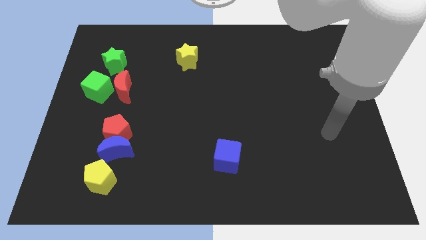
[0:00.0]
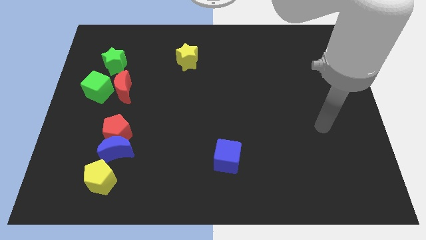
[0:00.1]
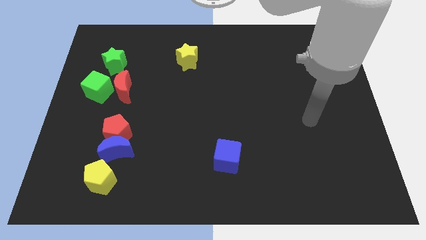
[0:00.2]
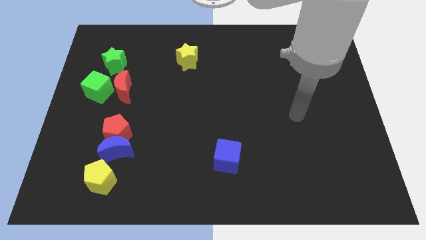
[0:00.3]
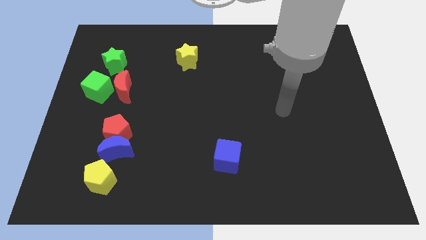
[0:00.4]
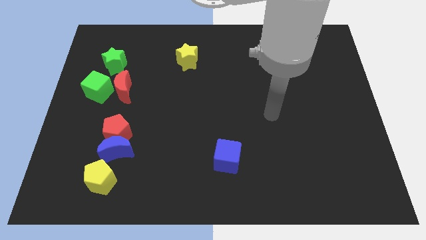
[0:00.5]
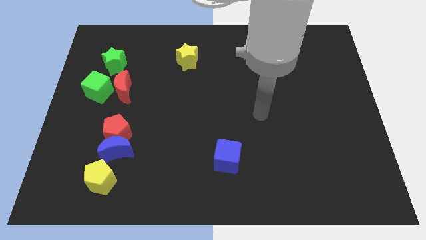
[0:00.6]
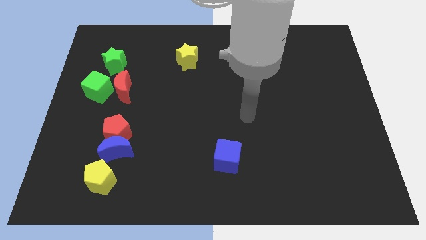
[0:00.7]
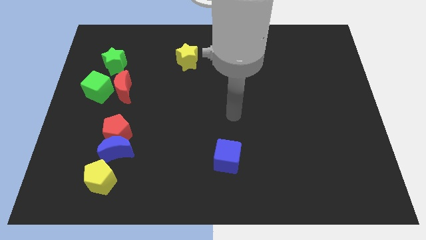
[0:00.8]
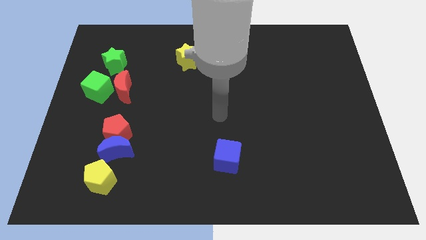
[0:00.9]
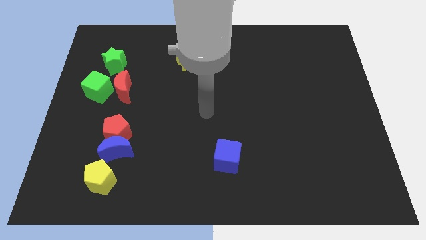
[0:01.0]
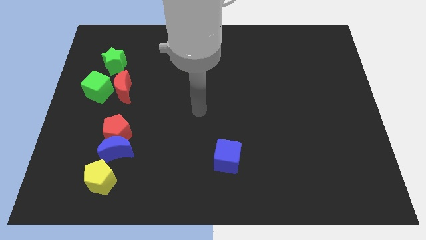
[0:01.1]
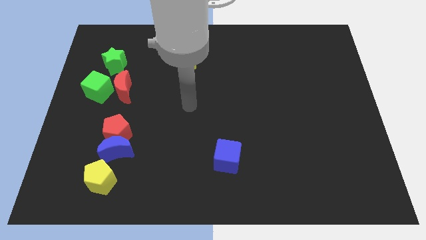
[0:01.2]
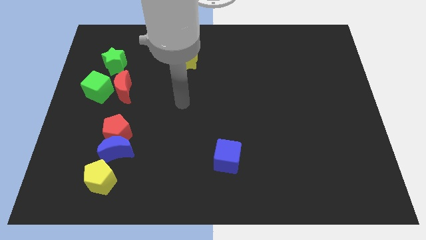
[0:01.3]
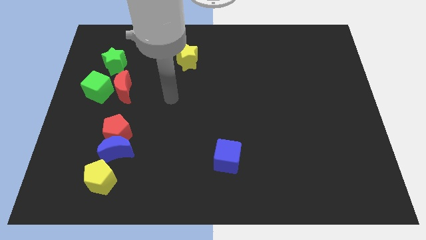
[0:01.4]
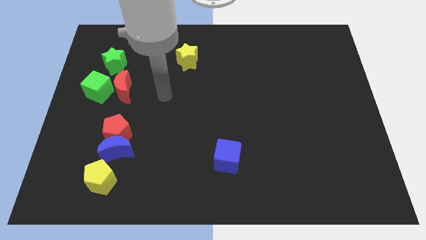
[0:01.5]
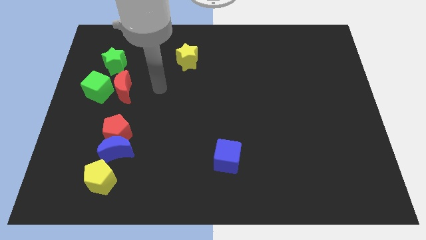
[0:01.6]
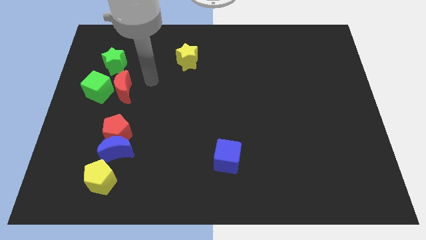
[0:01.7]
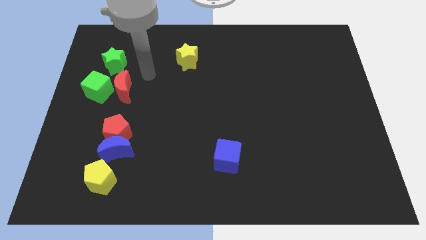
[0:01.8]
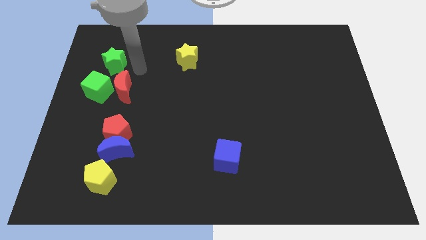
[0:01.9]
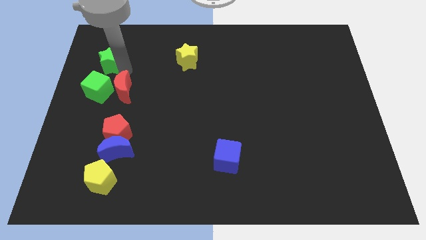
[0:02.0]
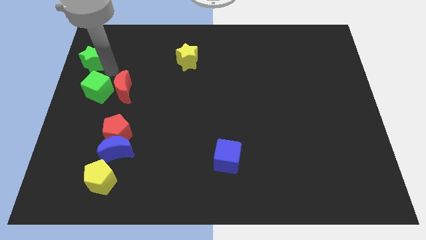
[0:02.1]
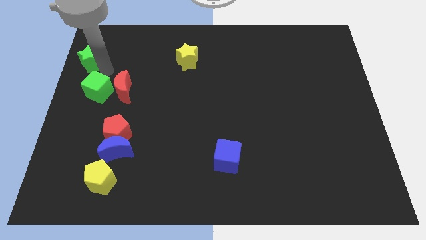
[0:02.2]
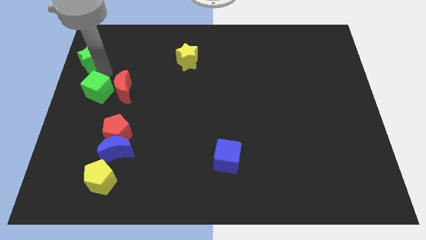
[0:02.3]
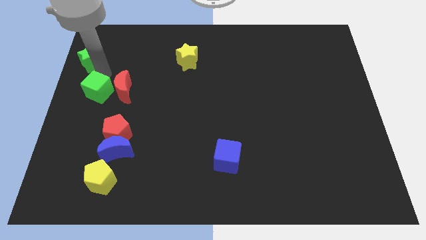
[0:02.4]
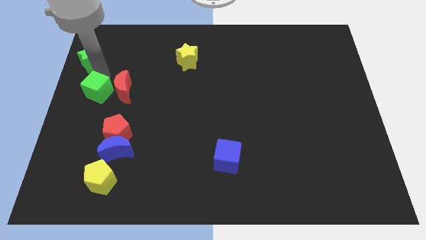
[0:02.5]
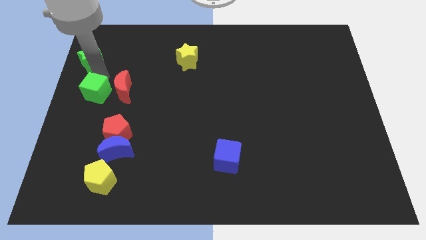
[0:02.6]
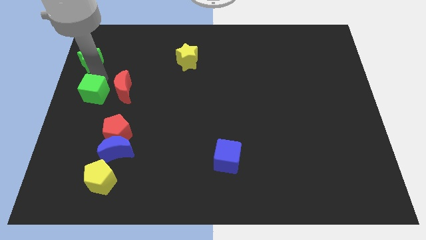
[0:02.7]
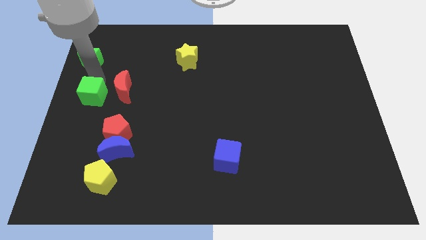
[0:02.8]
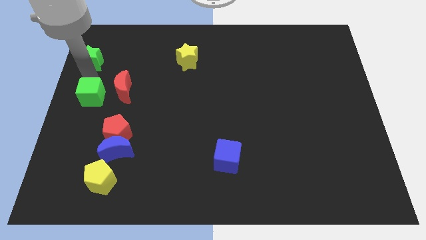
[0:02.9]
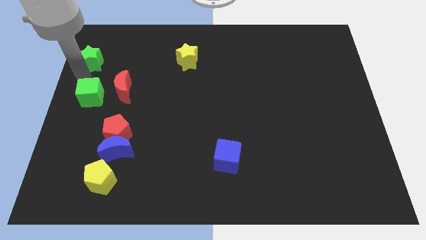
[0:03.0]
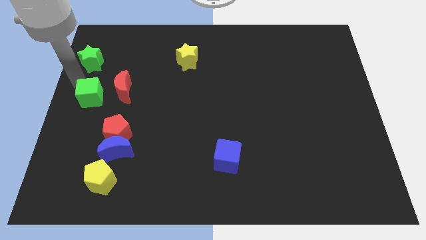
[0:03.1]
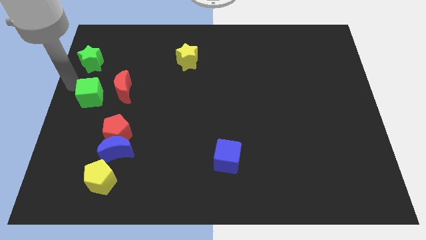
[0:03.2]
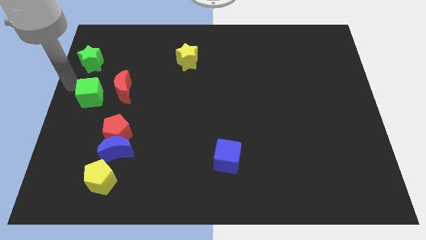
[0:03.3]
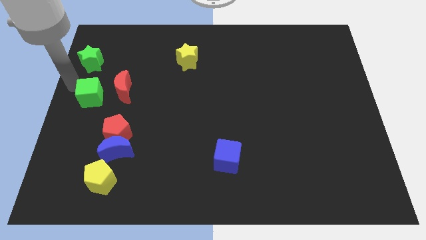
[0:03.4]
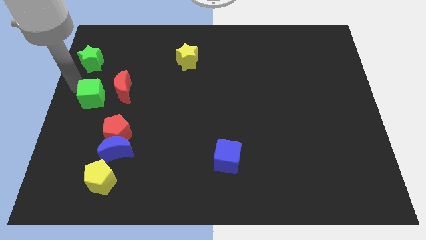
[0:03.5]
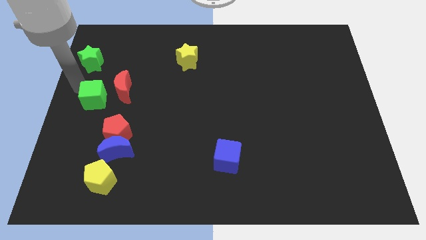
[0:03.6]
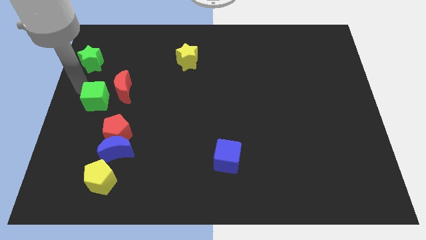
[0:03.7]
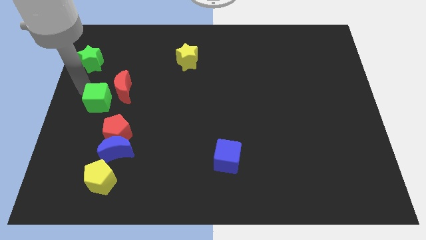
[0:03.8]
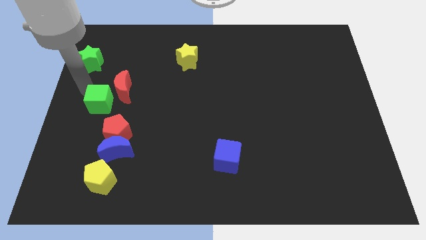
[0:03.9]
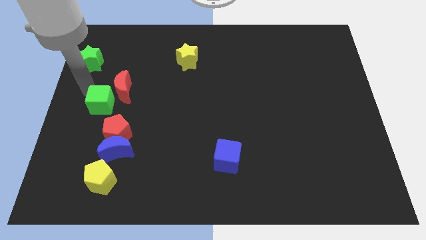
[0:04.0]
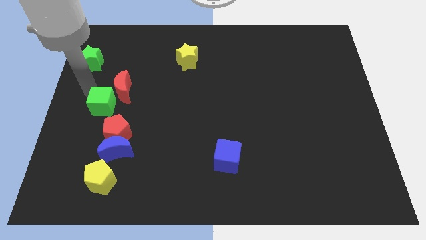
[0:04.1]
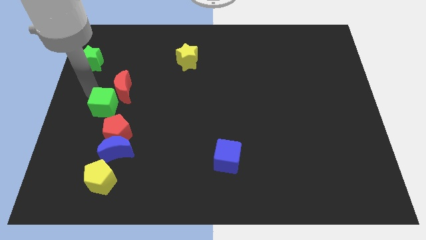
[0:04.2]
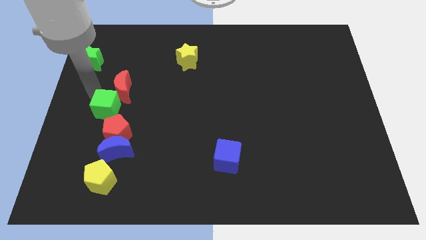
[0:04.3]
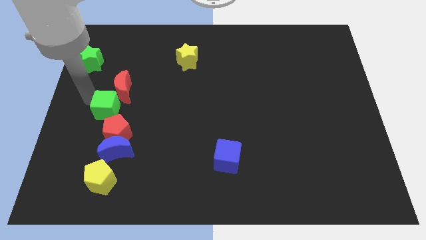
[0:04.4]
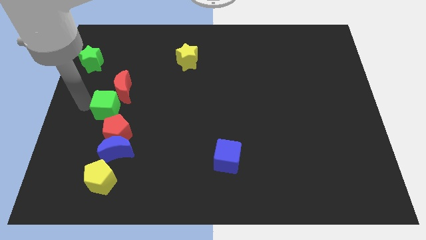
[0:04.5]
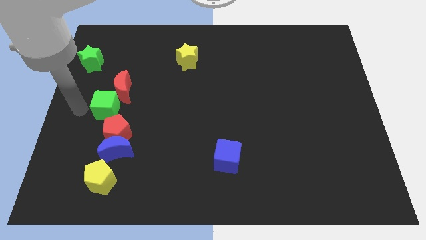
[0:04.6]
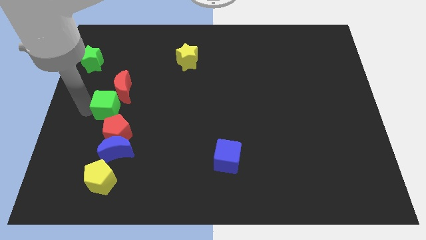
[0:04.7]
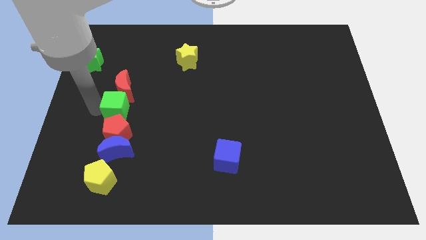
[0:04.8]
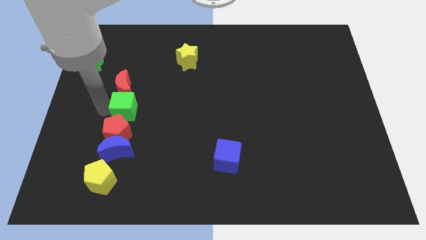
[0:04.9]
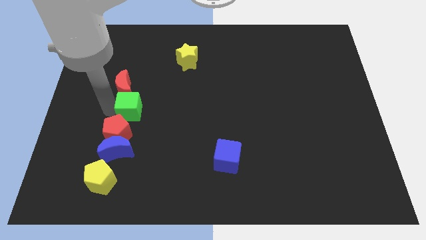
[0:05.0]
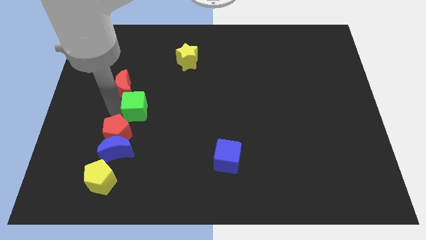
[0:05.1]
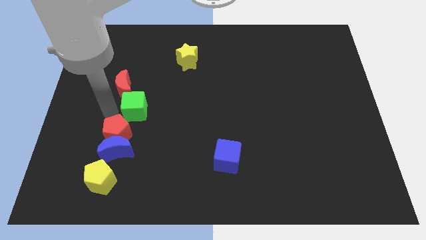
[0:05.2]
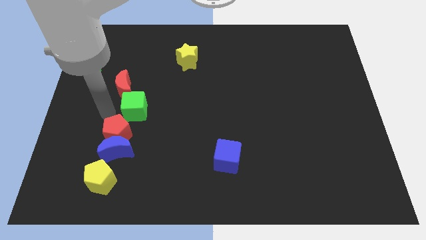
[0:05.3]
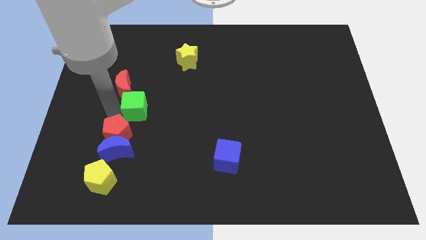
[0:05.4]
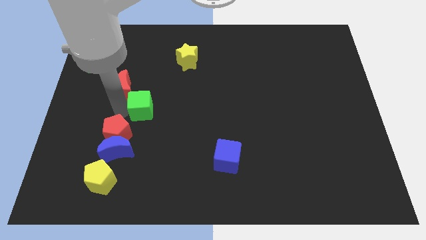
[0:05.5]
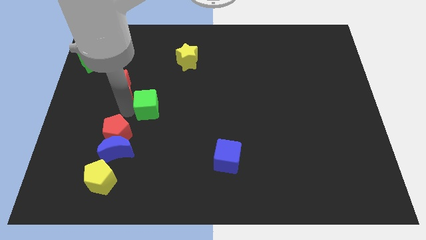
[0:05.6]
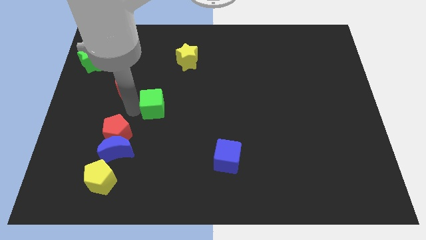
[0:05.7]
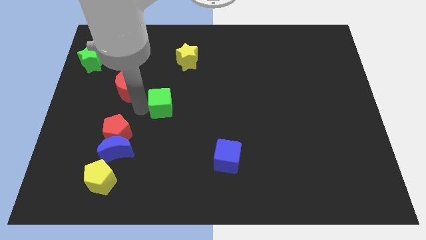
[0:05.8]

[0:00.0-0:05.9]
put the green cube to the middle

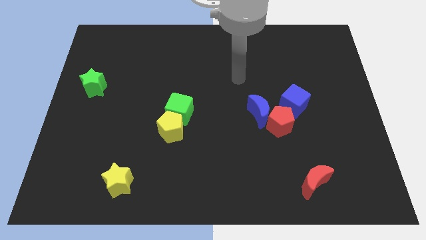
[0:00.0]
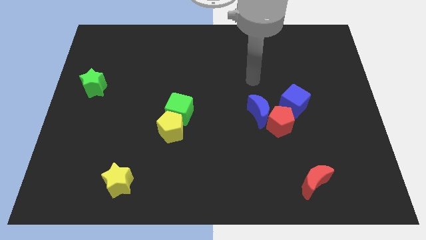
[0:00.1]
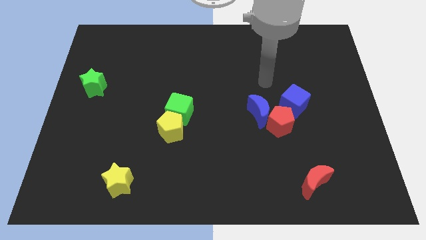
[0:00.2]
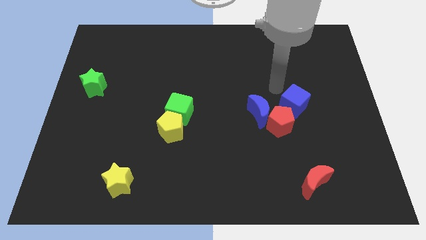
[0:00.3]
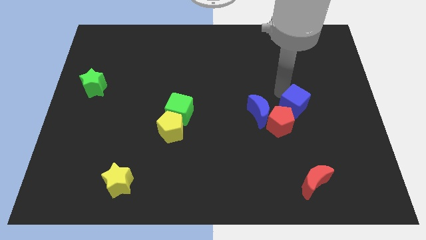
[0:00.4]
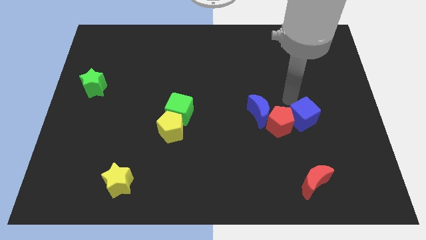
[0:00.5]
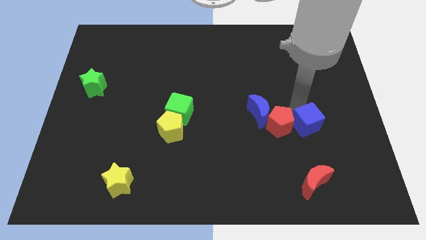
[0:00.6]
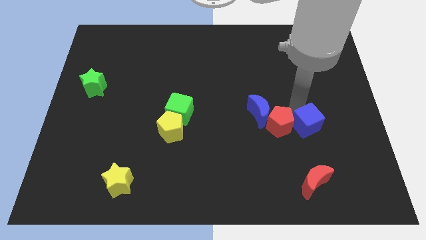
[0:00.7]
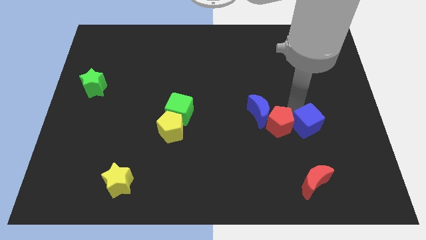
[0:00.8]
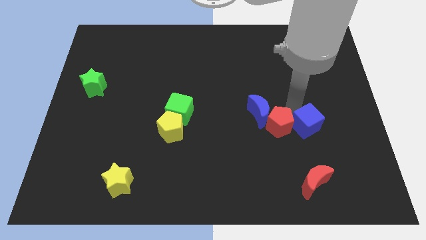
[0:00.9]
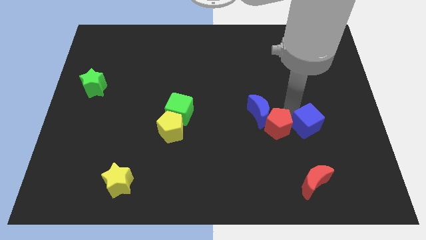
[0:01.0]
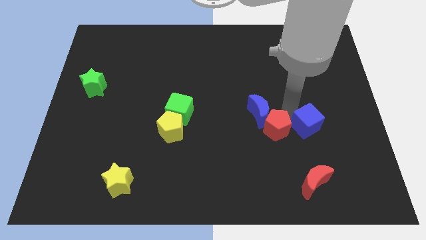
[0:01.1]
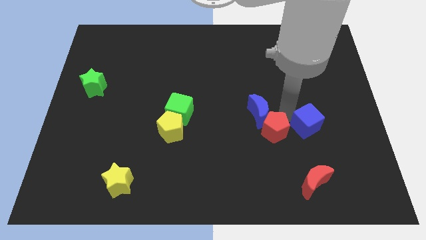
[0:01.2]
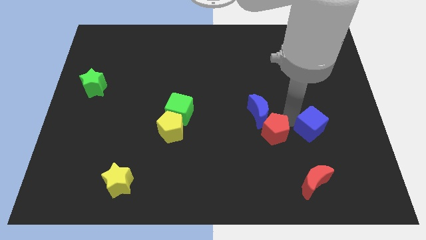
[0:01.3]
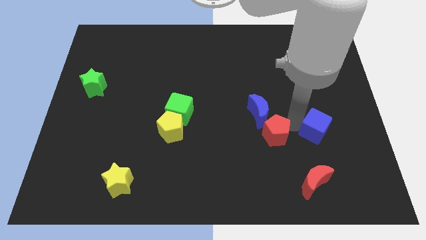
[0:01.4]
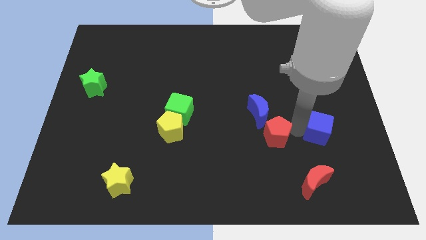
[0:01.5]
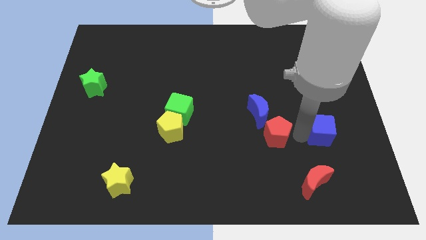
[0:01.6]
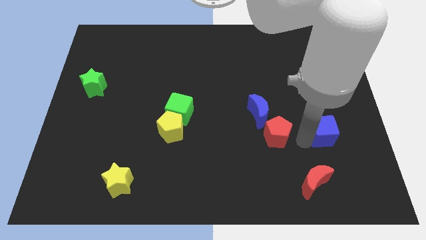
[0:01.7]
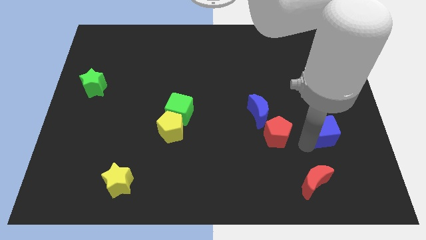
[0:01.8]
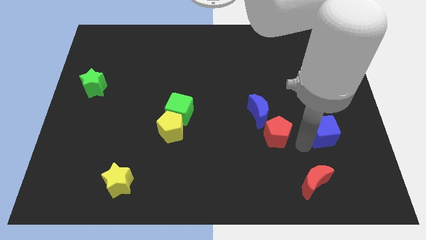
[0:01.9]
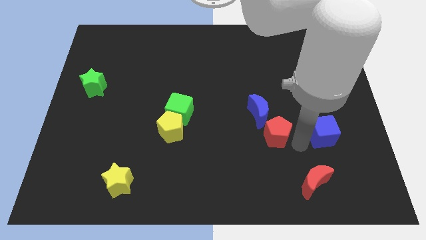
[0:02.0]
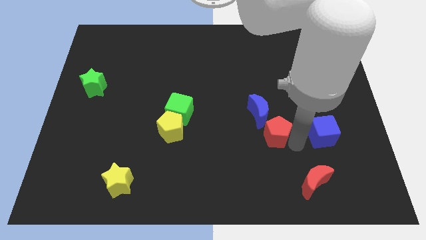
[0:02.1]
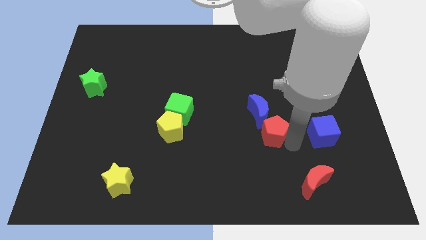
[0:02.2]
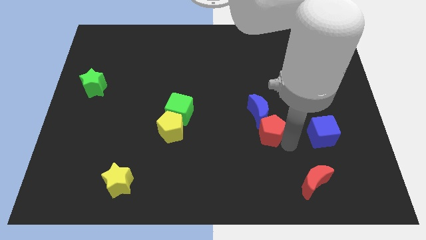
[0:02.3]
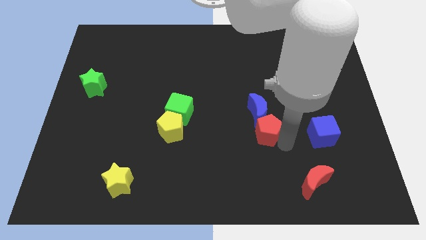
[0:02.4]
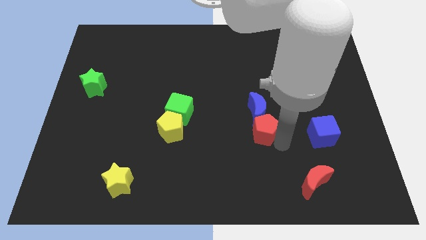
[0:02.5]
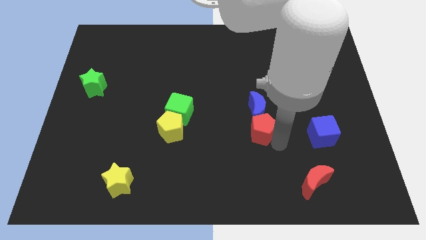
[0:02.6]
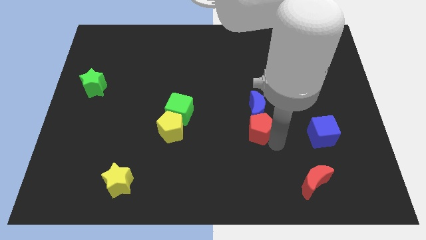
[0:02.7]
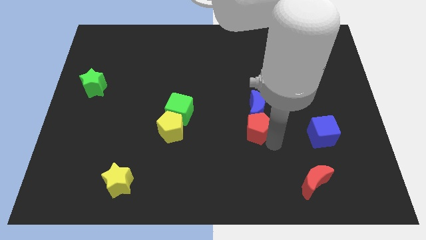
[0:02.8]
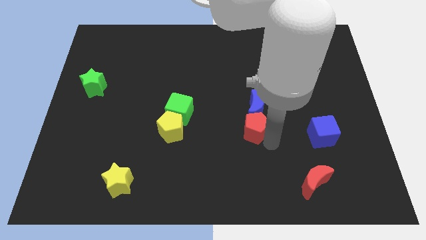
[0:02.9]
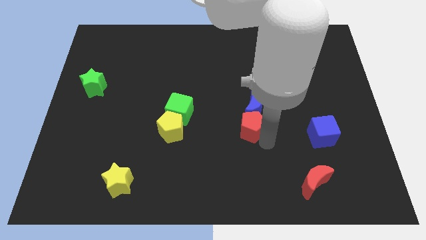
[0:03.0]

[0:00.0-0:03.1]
put the red pentagon to the center
